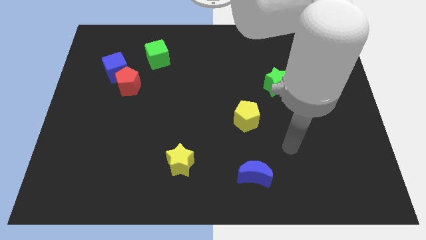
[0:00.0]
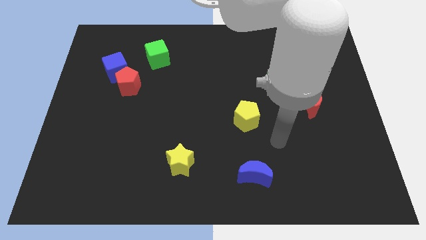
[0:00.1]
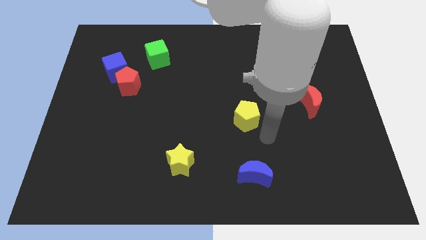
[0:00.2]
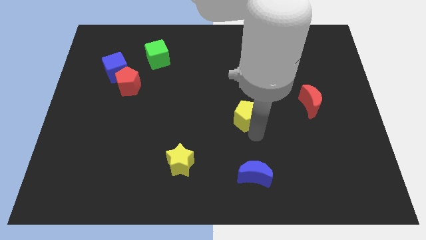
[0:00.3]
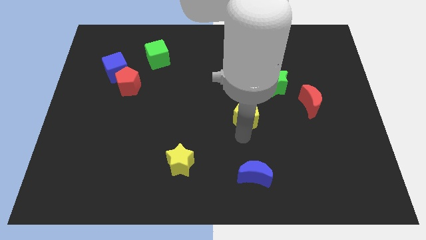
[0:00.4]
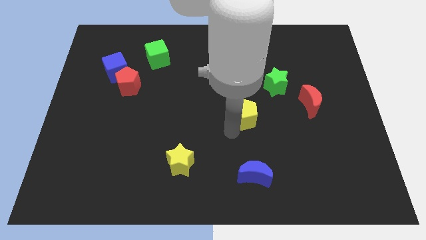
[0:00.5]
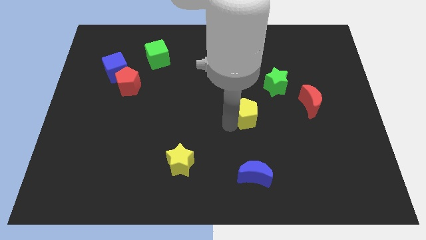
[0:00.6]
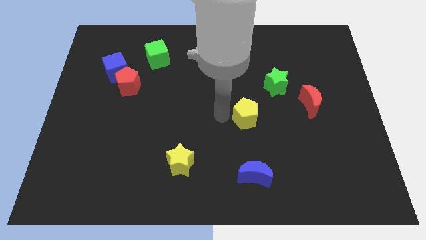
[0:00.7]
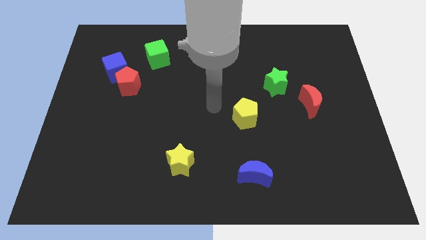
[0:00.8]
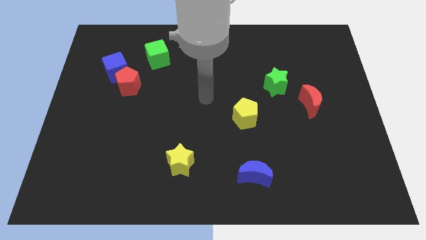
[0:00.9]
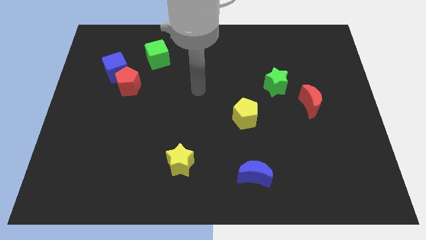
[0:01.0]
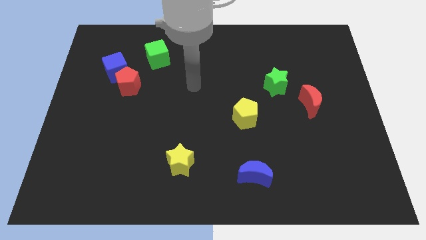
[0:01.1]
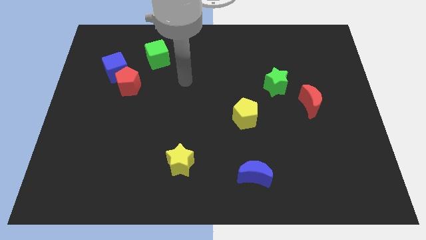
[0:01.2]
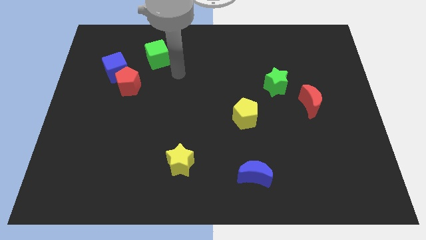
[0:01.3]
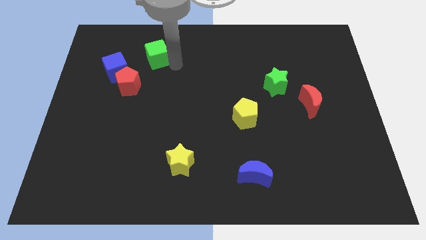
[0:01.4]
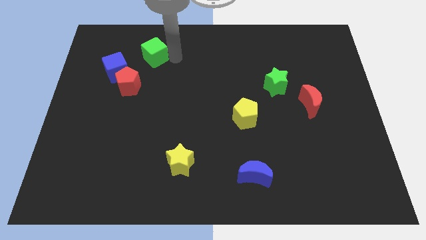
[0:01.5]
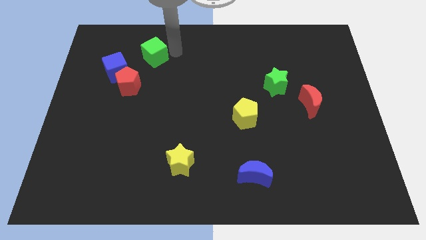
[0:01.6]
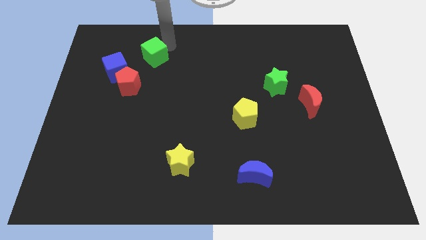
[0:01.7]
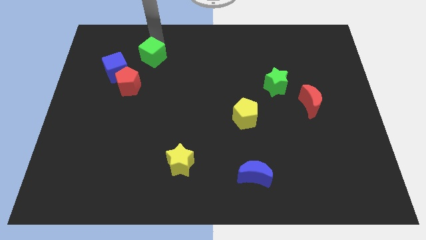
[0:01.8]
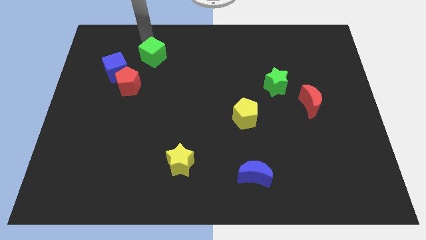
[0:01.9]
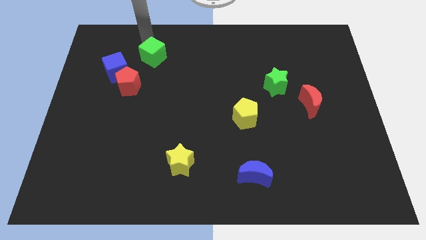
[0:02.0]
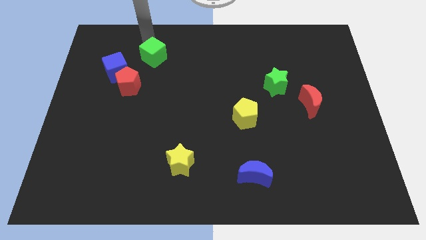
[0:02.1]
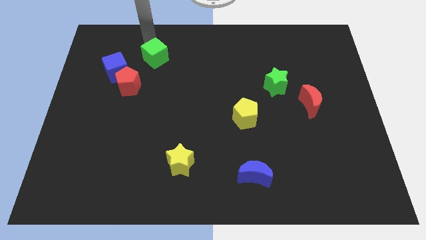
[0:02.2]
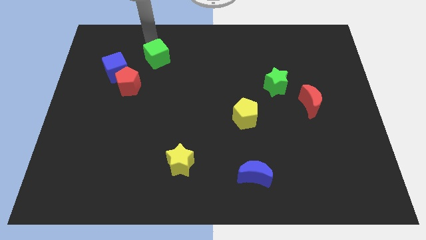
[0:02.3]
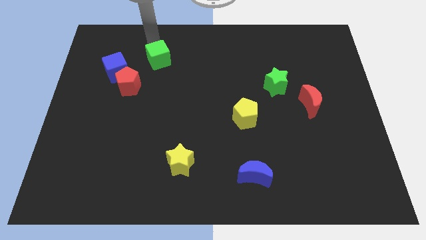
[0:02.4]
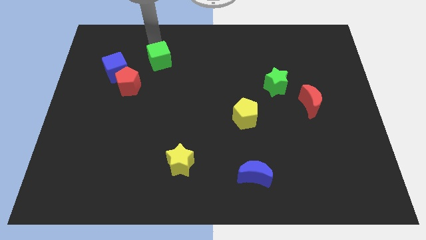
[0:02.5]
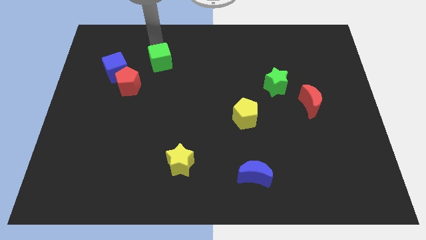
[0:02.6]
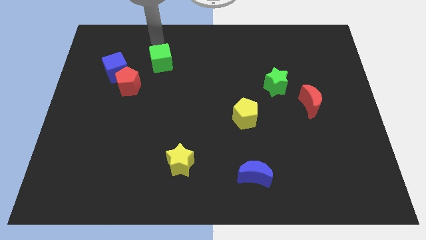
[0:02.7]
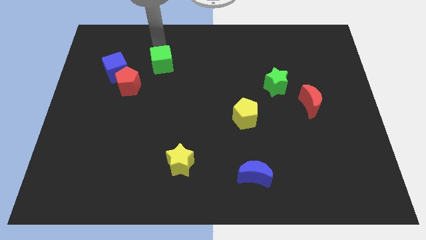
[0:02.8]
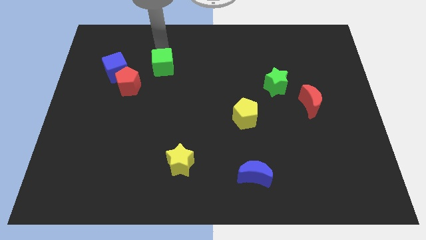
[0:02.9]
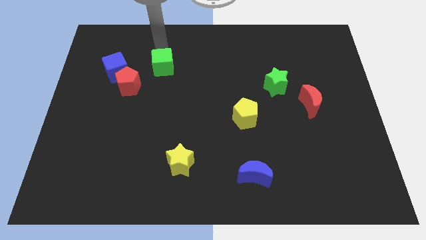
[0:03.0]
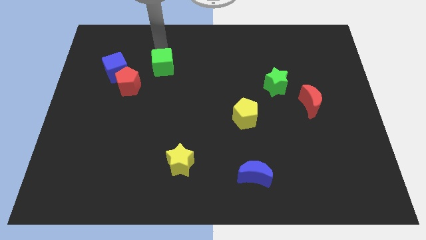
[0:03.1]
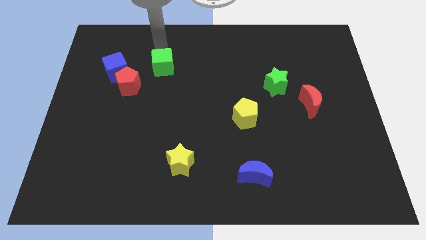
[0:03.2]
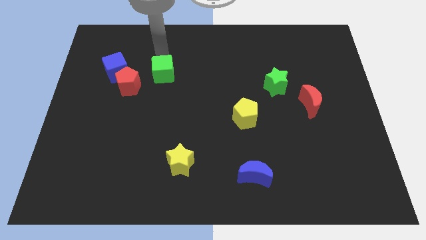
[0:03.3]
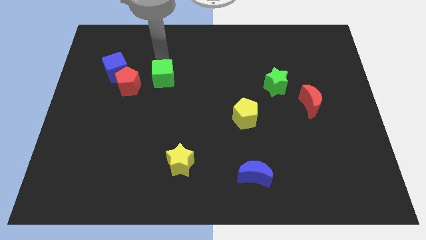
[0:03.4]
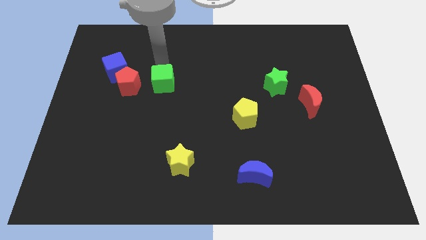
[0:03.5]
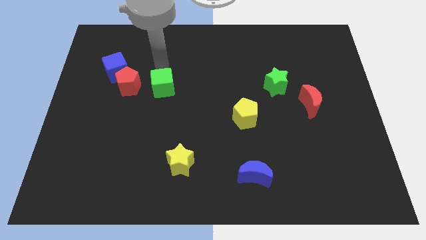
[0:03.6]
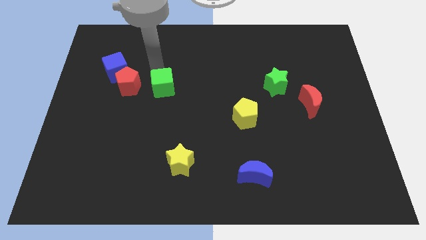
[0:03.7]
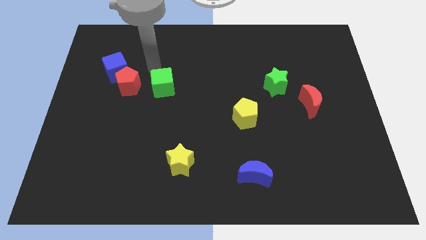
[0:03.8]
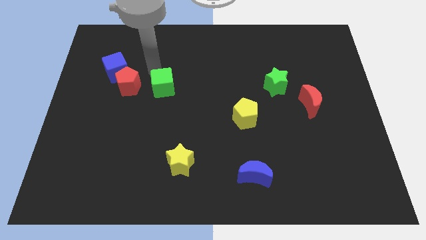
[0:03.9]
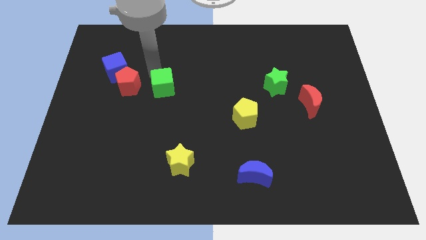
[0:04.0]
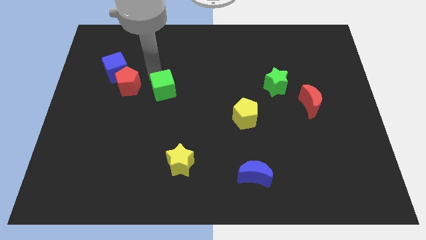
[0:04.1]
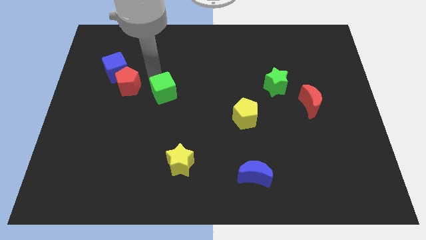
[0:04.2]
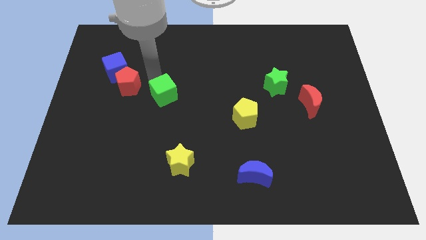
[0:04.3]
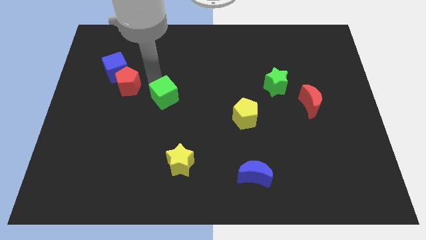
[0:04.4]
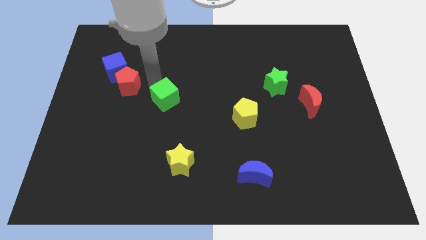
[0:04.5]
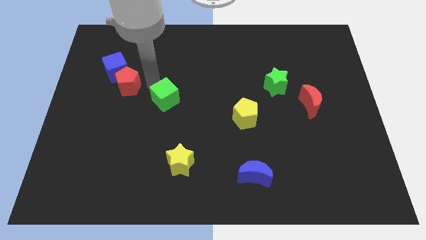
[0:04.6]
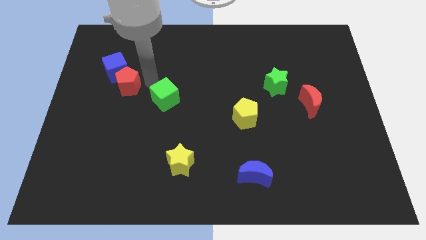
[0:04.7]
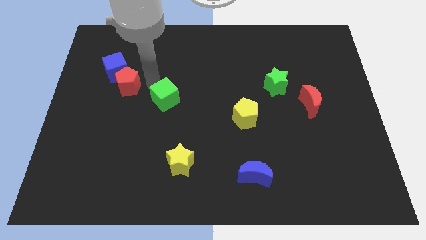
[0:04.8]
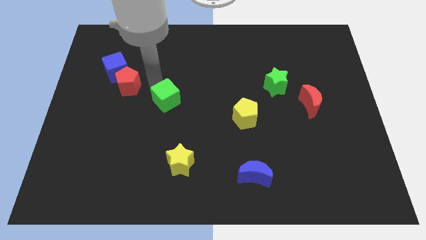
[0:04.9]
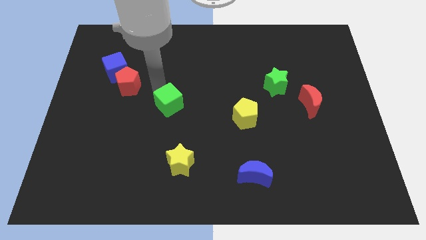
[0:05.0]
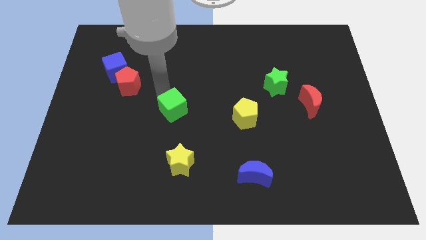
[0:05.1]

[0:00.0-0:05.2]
slide the green cube above the yellow star

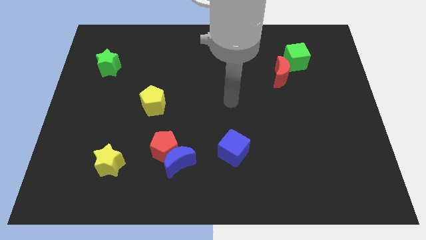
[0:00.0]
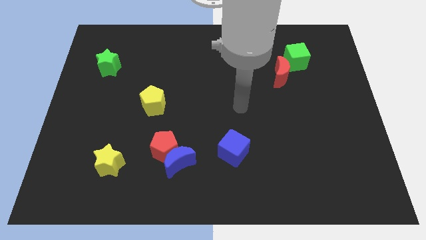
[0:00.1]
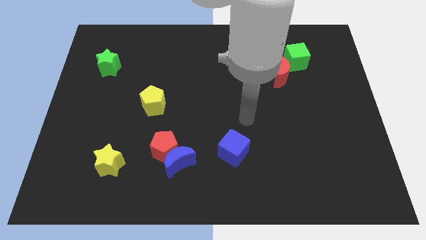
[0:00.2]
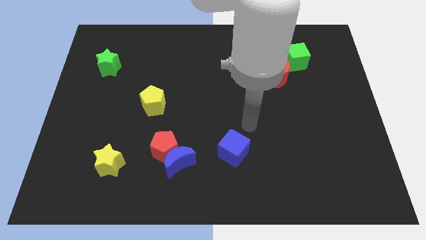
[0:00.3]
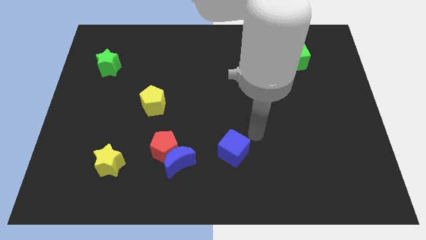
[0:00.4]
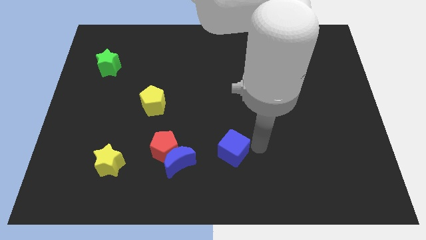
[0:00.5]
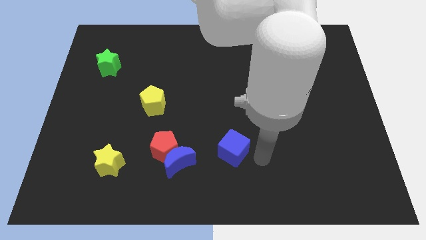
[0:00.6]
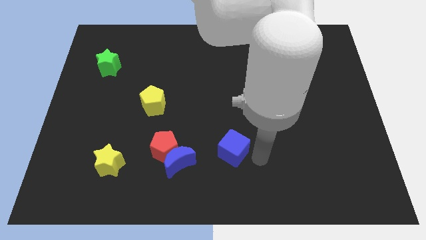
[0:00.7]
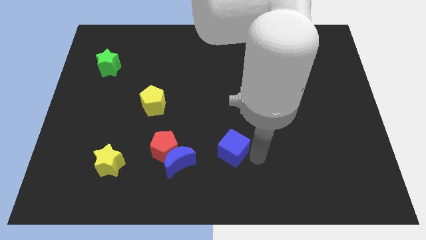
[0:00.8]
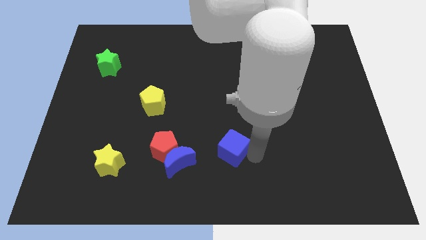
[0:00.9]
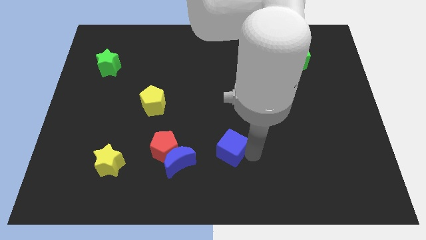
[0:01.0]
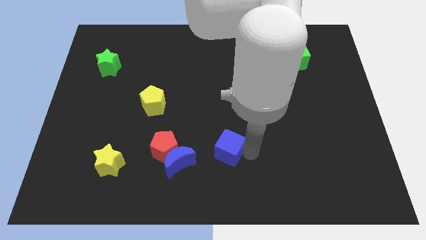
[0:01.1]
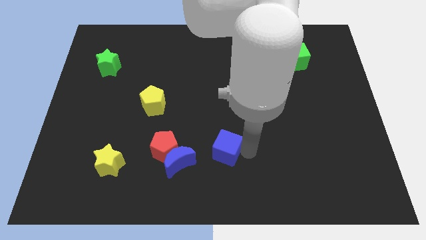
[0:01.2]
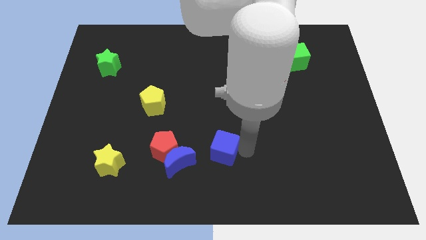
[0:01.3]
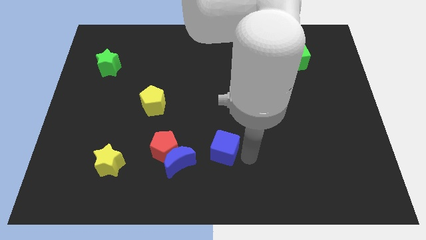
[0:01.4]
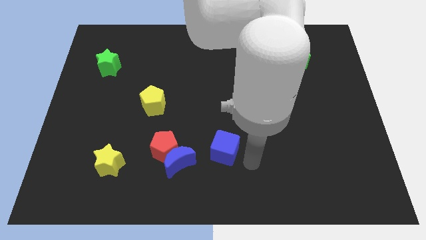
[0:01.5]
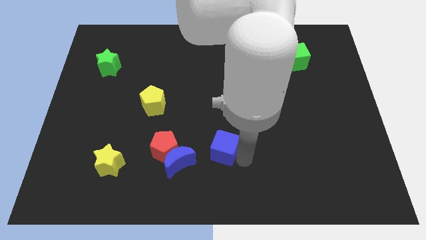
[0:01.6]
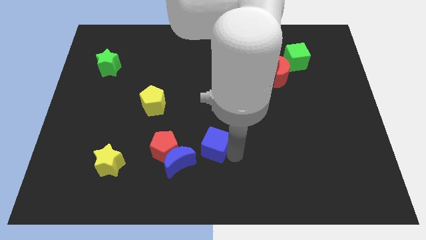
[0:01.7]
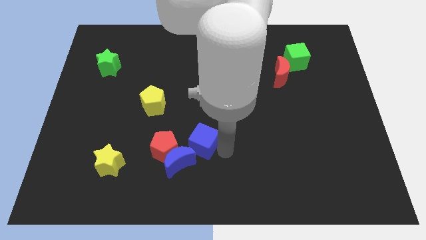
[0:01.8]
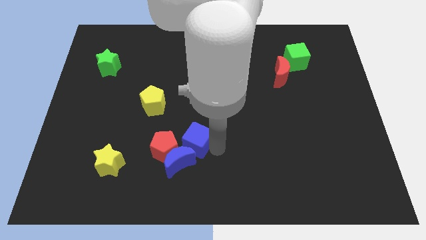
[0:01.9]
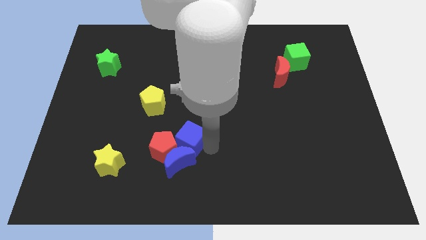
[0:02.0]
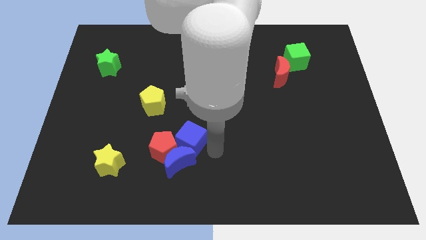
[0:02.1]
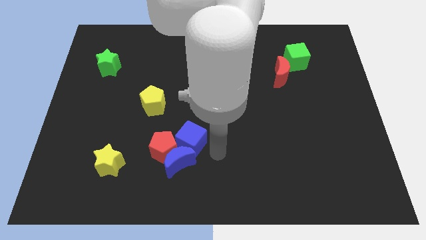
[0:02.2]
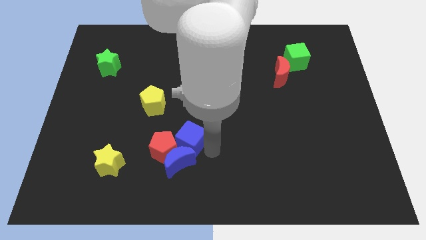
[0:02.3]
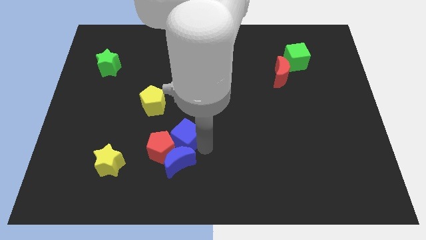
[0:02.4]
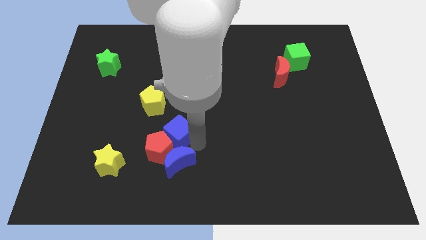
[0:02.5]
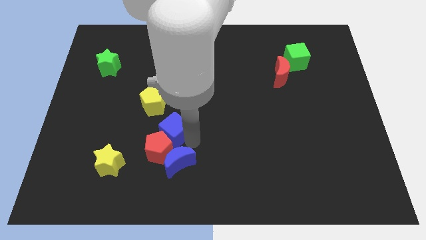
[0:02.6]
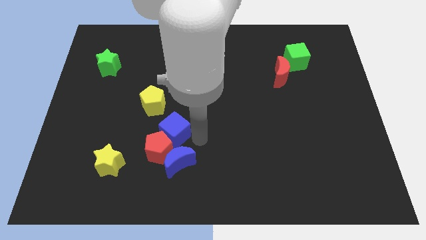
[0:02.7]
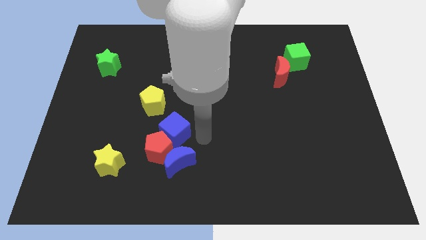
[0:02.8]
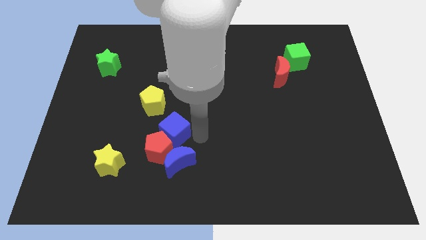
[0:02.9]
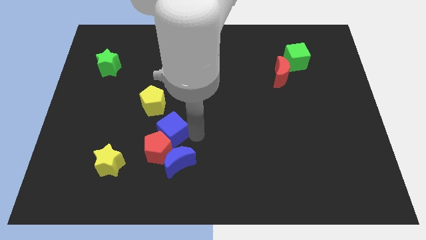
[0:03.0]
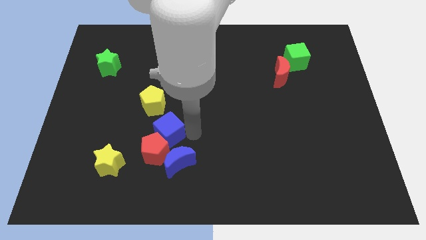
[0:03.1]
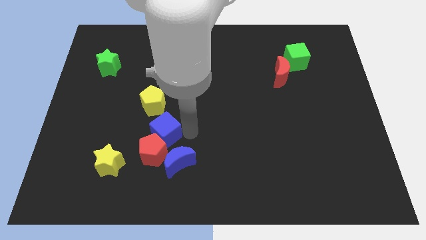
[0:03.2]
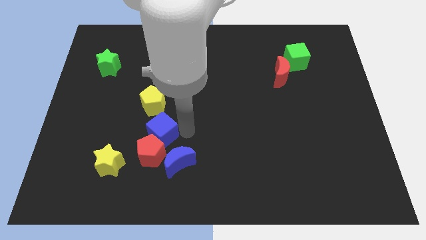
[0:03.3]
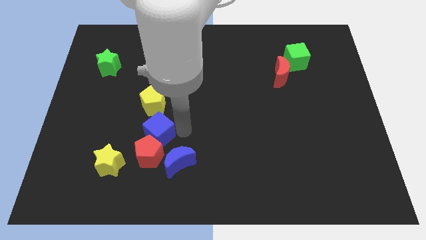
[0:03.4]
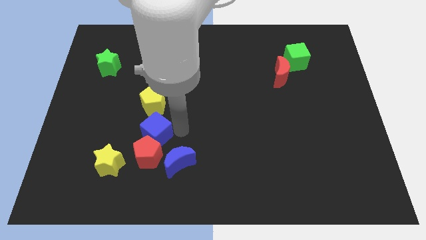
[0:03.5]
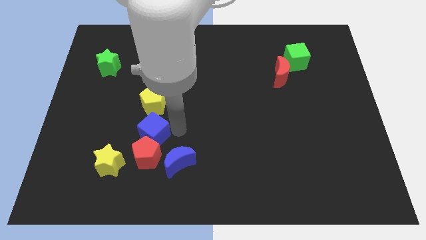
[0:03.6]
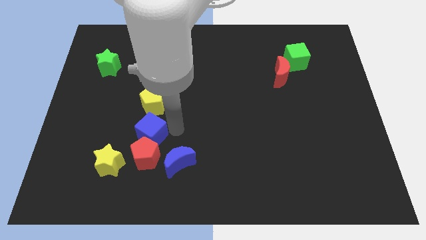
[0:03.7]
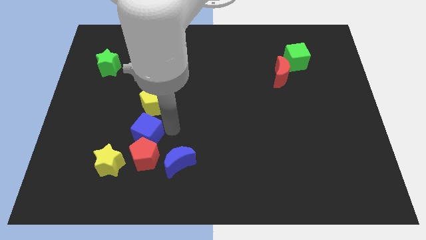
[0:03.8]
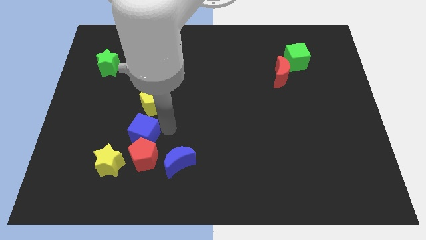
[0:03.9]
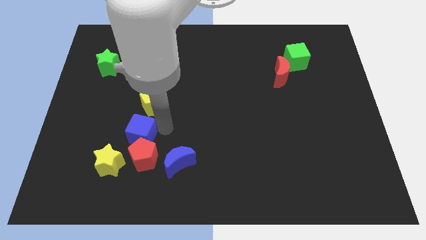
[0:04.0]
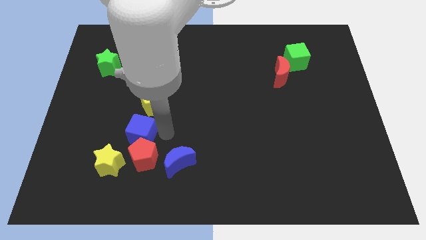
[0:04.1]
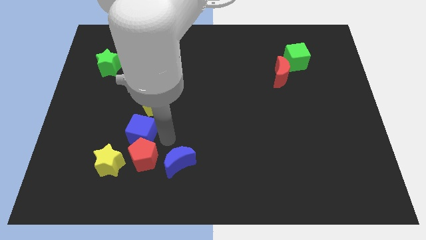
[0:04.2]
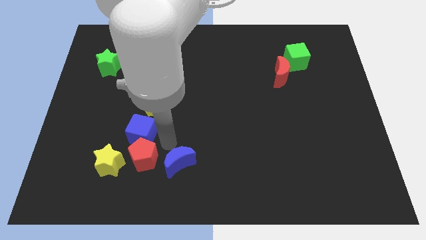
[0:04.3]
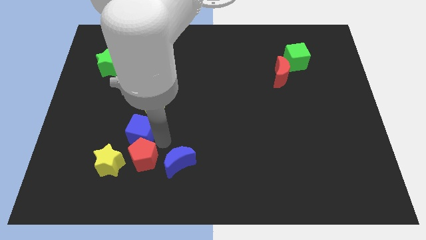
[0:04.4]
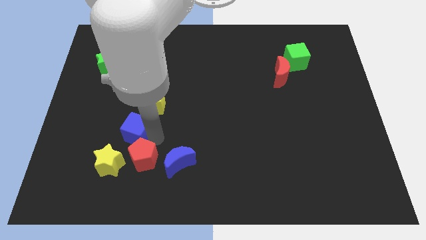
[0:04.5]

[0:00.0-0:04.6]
put the blue cube to the top side of the yellow star
